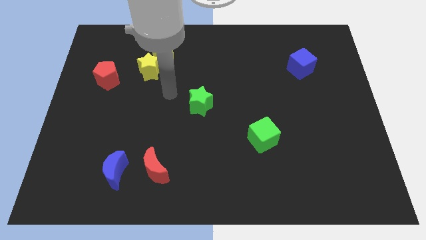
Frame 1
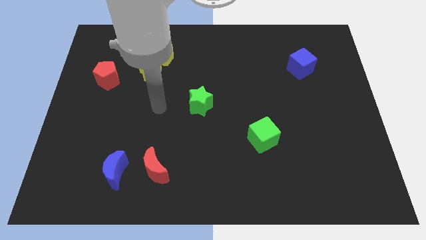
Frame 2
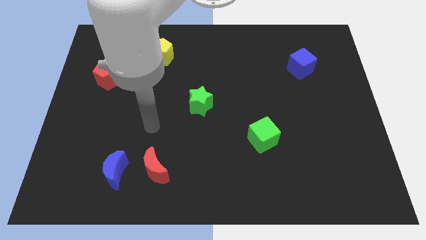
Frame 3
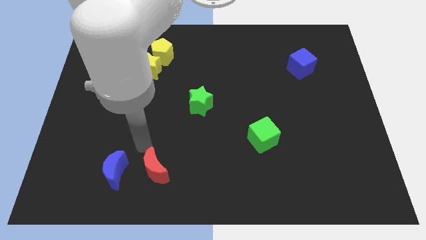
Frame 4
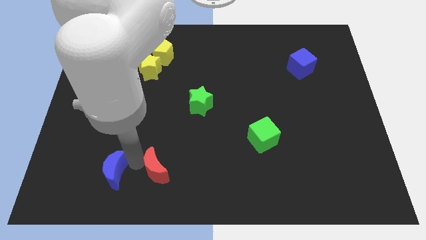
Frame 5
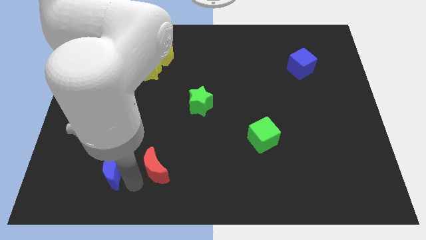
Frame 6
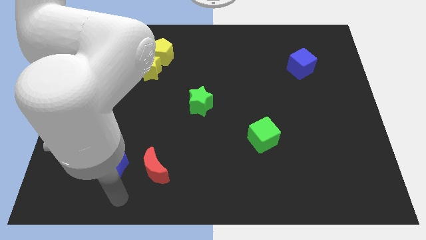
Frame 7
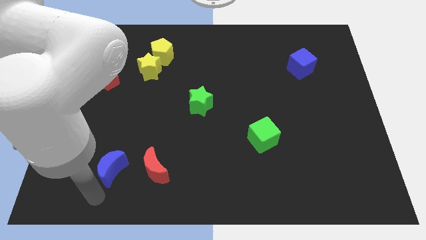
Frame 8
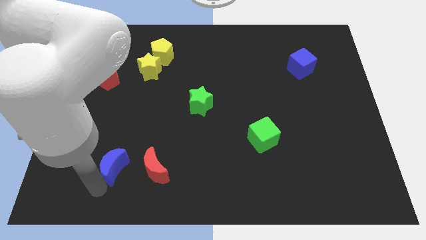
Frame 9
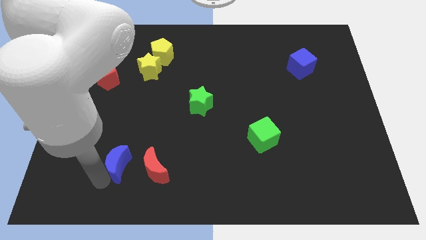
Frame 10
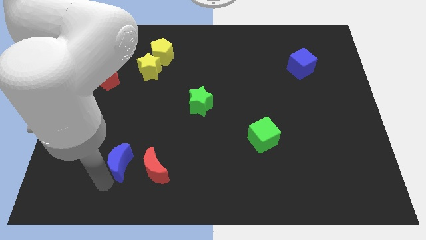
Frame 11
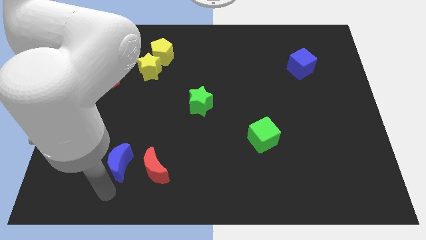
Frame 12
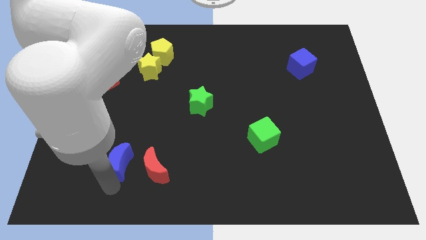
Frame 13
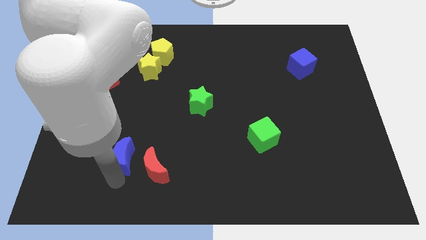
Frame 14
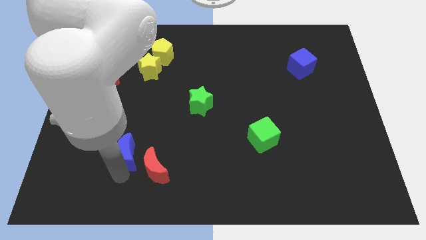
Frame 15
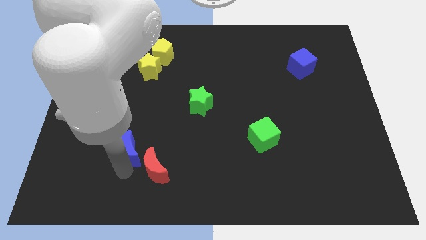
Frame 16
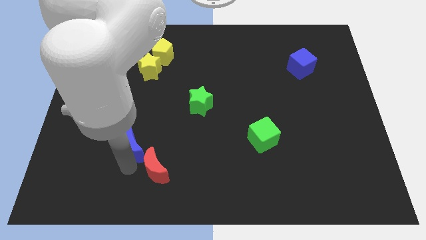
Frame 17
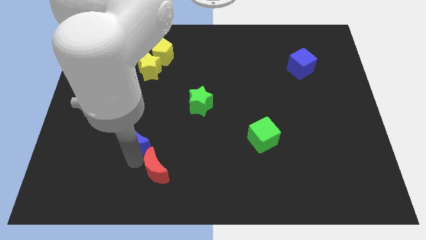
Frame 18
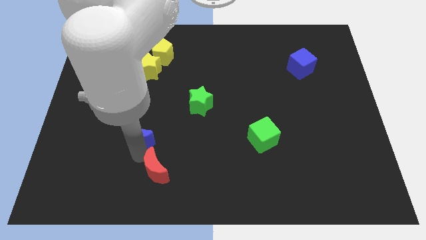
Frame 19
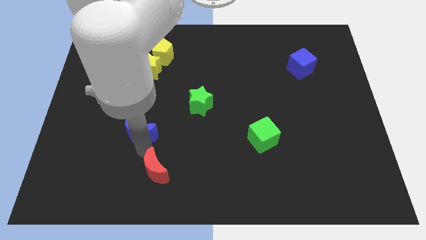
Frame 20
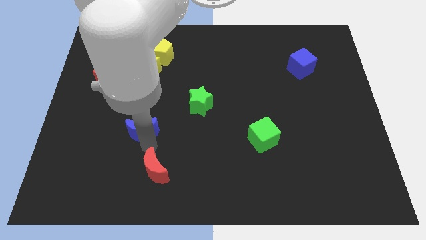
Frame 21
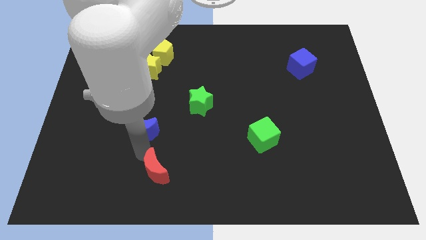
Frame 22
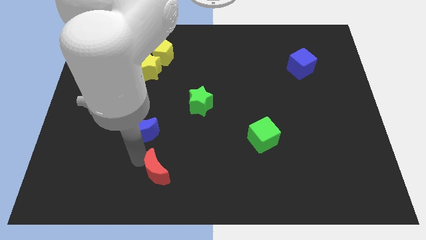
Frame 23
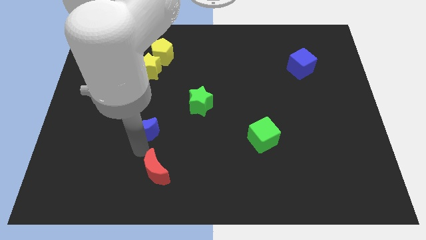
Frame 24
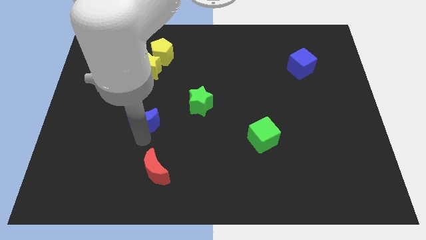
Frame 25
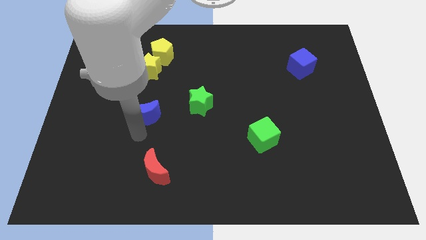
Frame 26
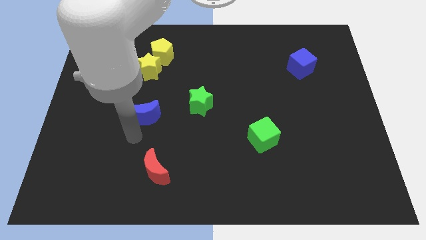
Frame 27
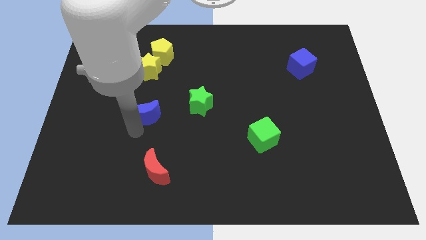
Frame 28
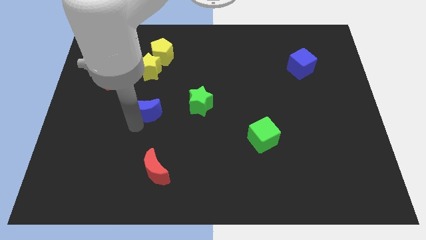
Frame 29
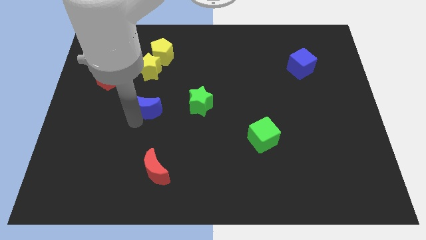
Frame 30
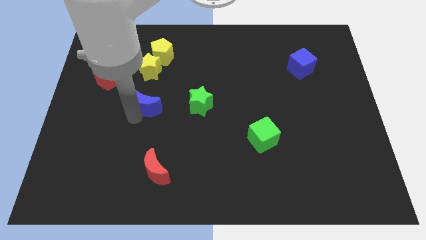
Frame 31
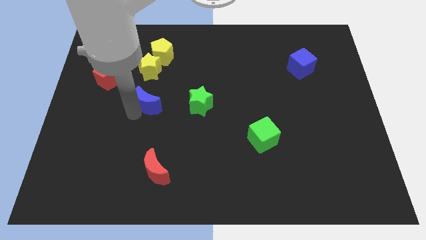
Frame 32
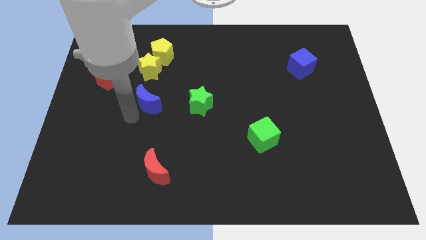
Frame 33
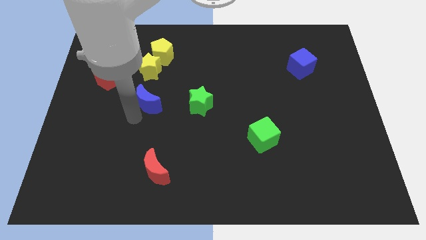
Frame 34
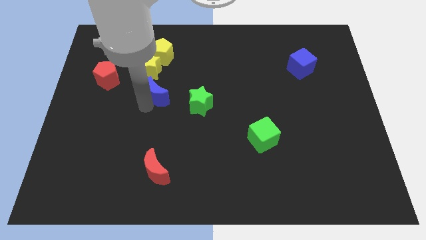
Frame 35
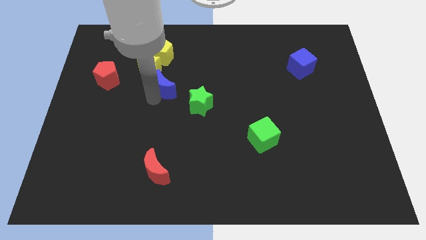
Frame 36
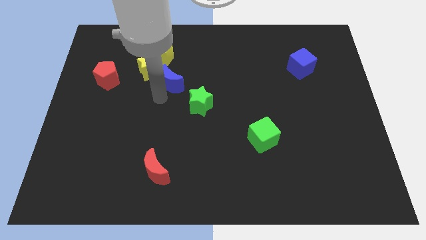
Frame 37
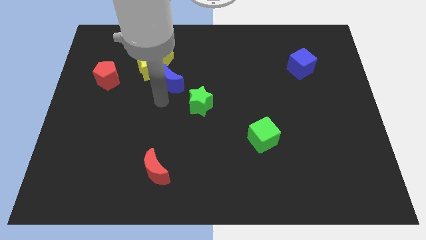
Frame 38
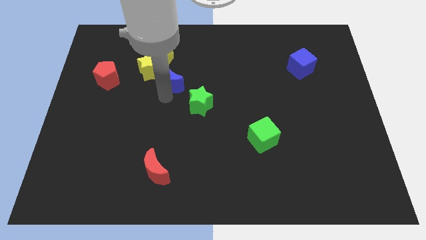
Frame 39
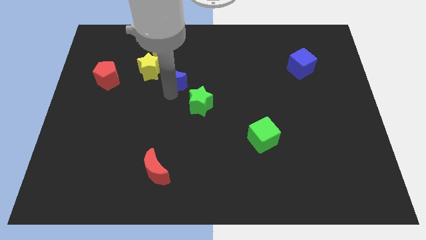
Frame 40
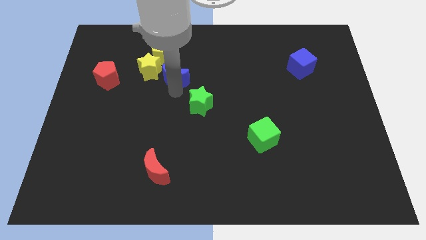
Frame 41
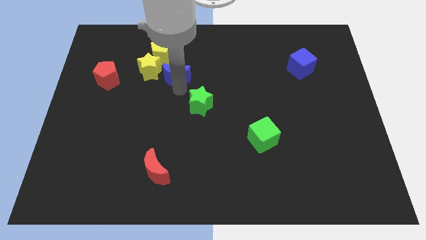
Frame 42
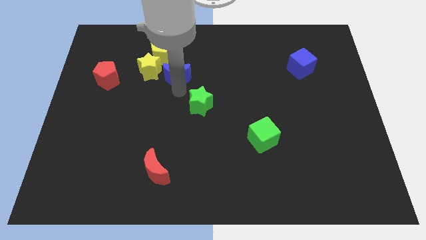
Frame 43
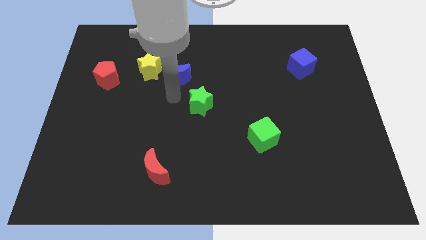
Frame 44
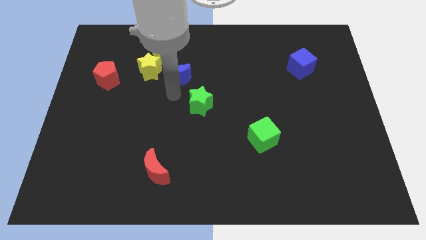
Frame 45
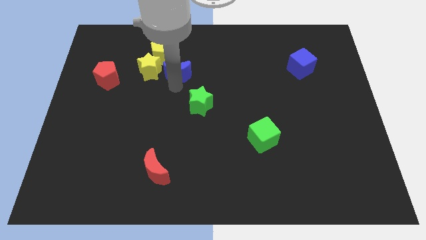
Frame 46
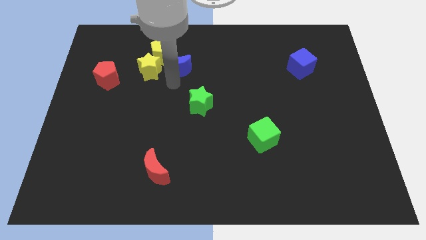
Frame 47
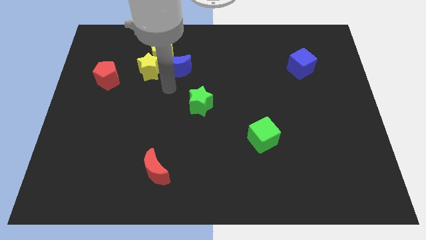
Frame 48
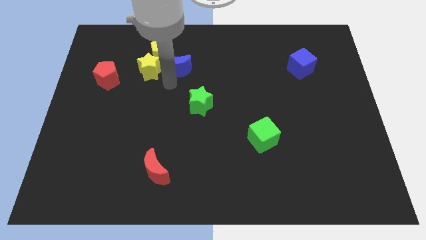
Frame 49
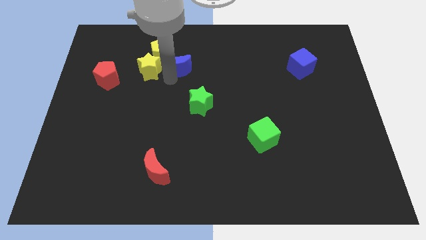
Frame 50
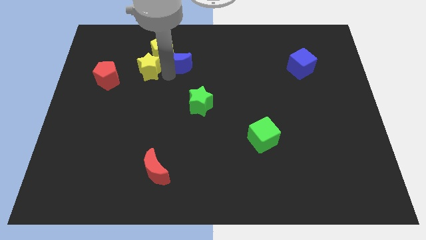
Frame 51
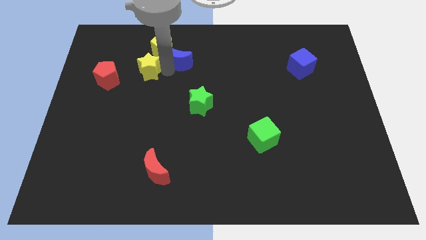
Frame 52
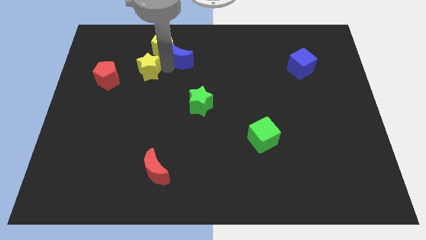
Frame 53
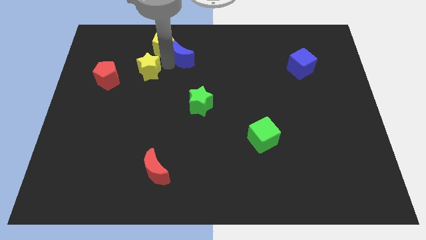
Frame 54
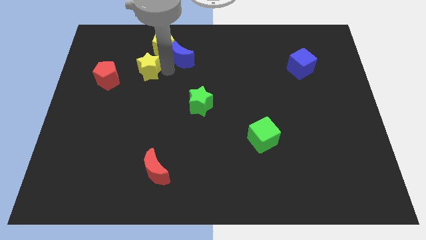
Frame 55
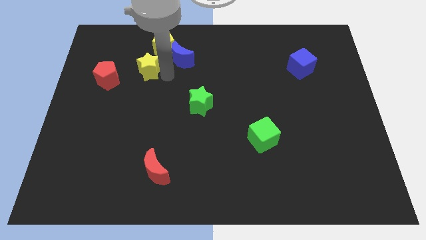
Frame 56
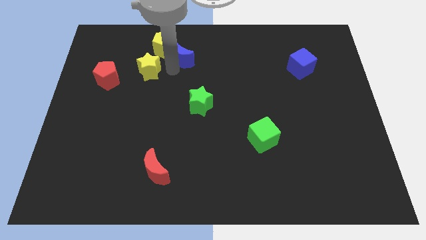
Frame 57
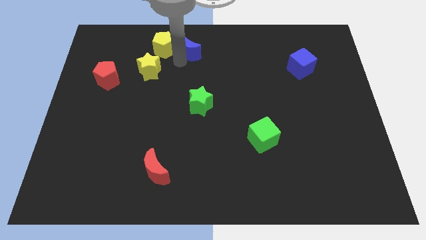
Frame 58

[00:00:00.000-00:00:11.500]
put the blue moon to the towards your base

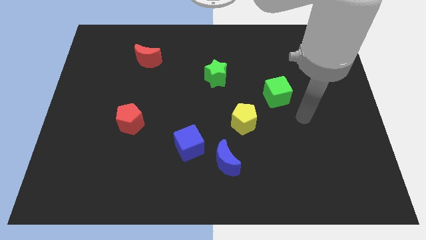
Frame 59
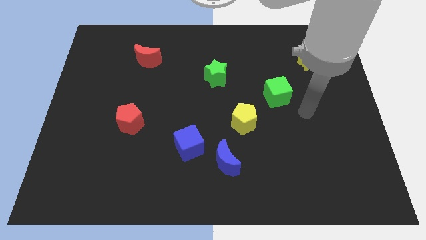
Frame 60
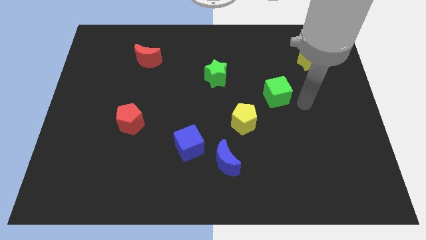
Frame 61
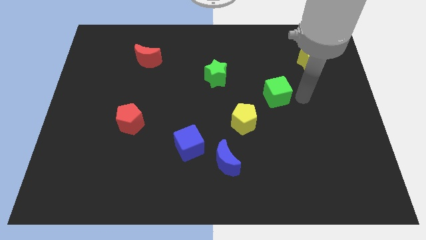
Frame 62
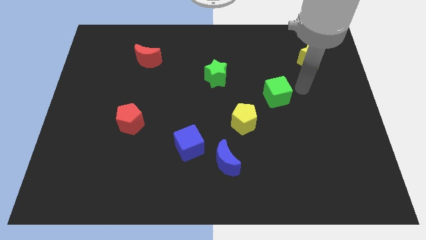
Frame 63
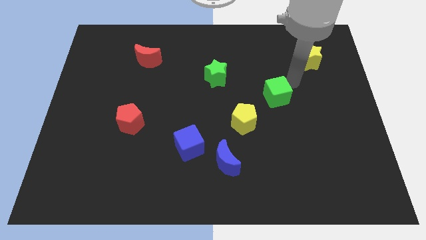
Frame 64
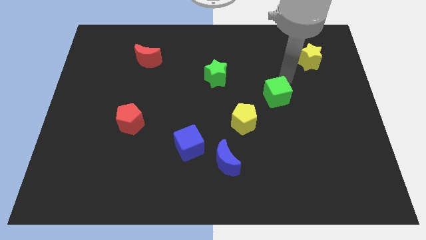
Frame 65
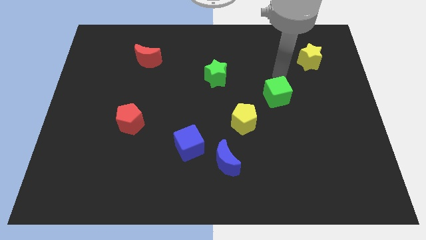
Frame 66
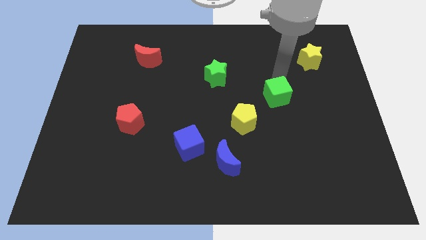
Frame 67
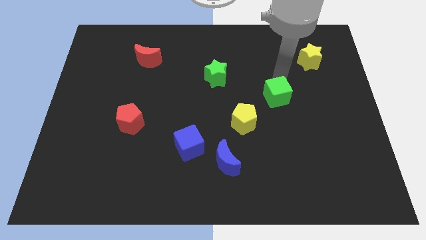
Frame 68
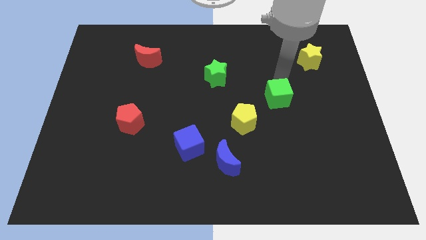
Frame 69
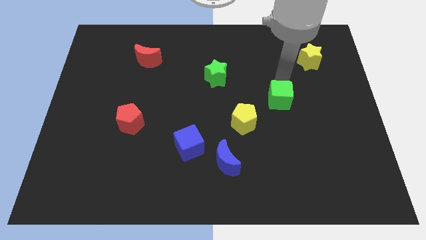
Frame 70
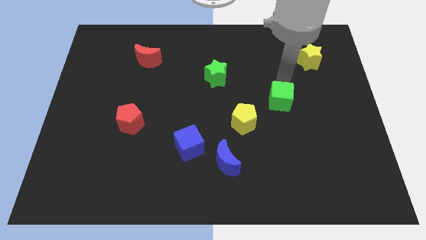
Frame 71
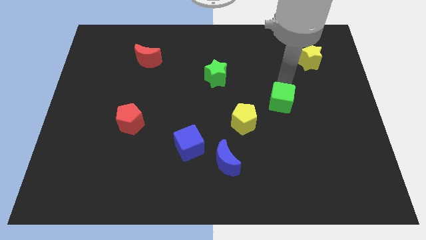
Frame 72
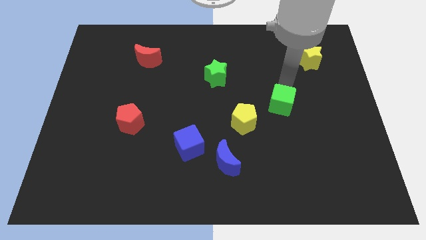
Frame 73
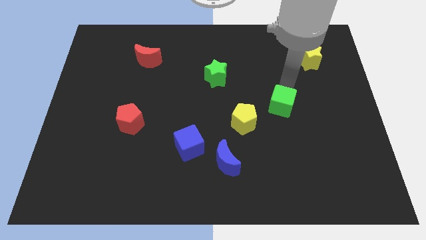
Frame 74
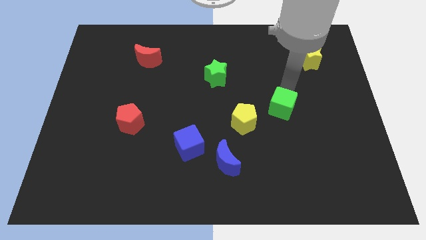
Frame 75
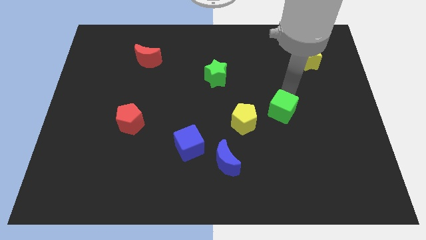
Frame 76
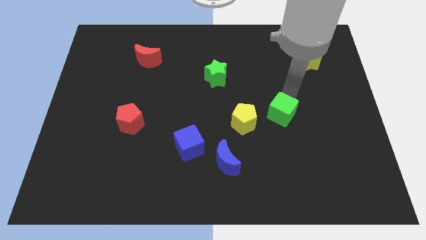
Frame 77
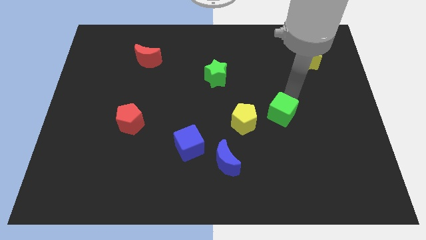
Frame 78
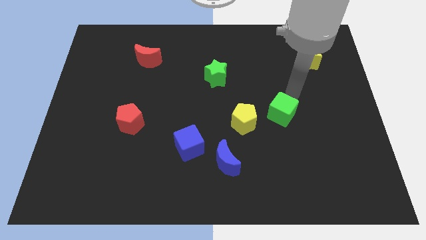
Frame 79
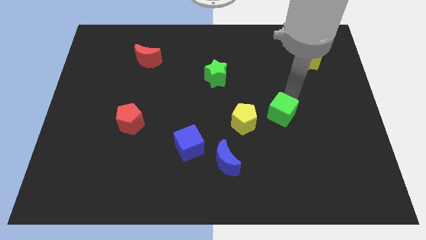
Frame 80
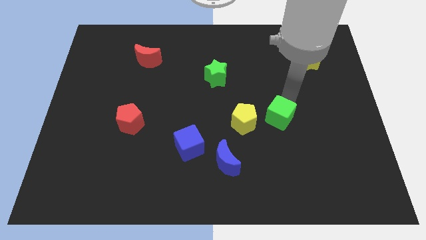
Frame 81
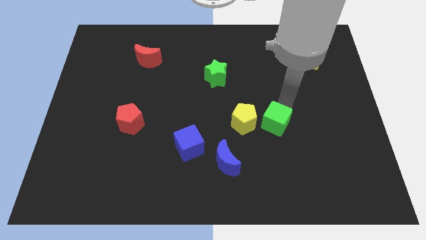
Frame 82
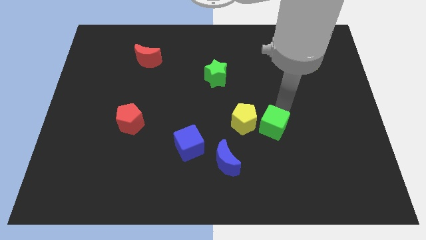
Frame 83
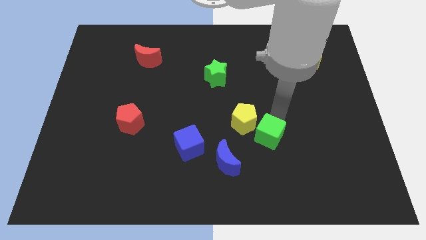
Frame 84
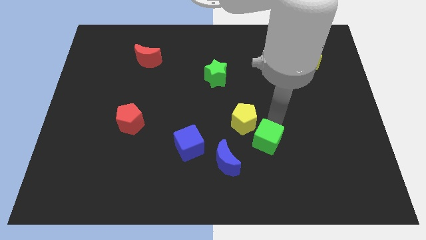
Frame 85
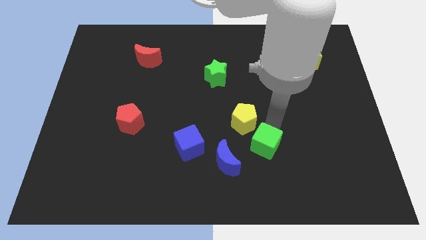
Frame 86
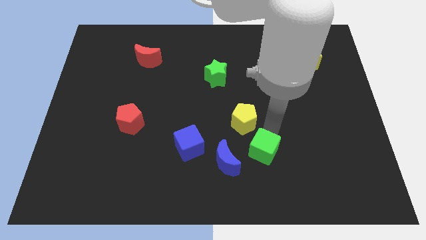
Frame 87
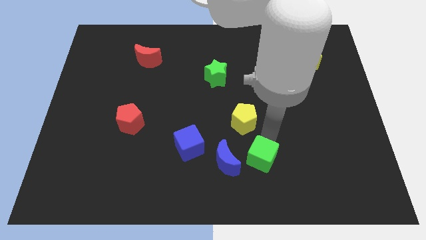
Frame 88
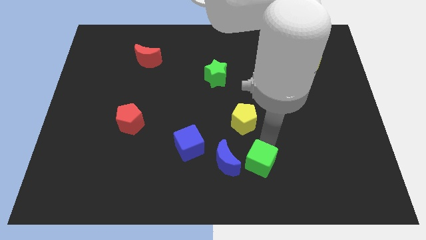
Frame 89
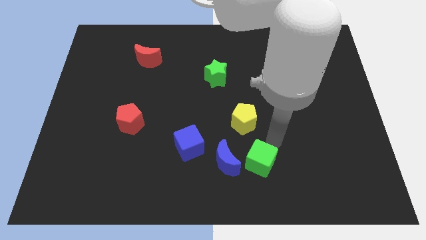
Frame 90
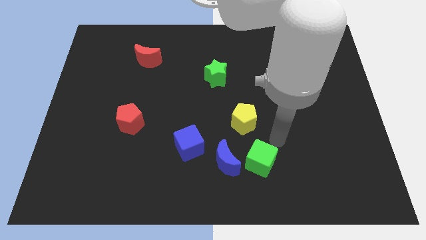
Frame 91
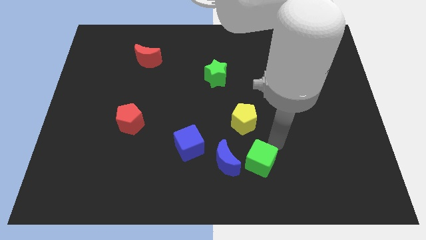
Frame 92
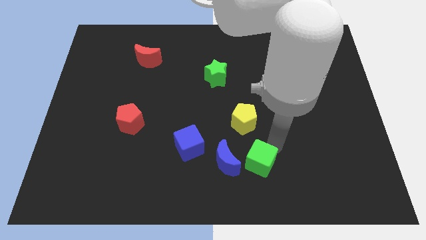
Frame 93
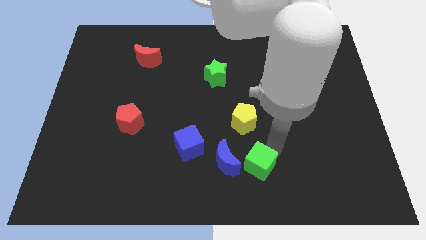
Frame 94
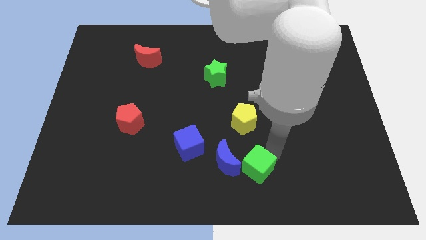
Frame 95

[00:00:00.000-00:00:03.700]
slide the green cube to the bottom
